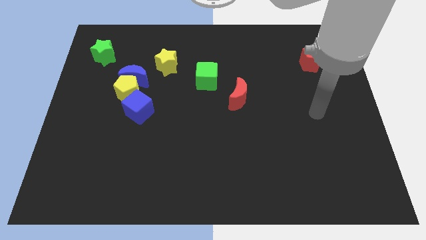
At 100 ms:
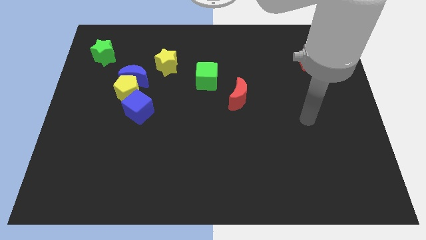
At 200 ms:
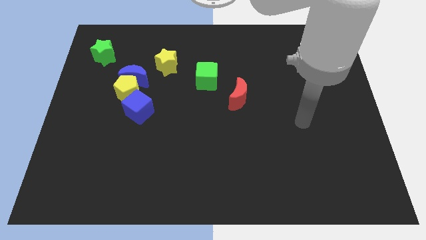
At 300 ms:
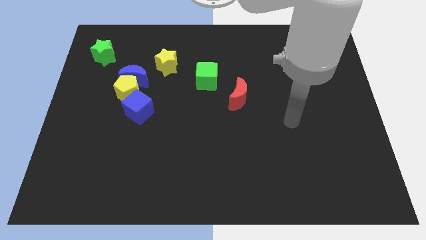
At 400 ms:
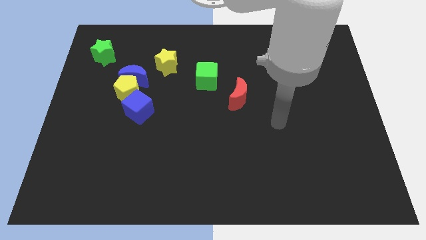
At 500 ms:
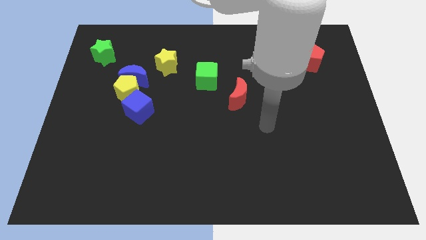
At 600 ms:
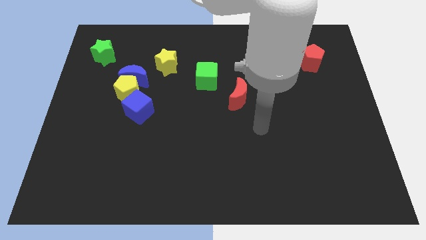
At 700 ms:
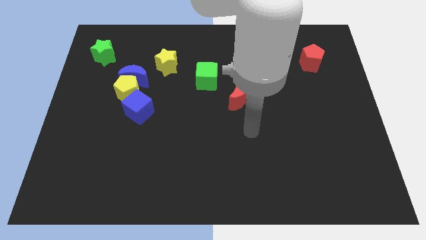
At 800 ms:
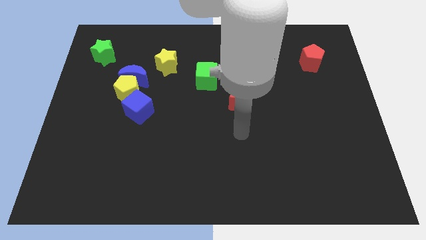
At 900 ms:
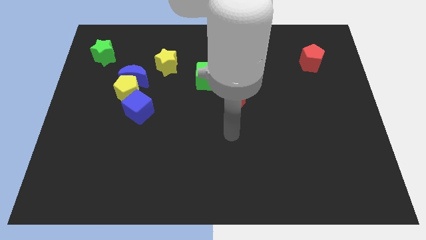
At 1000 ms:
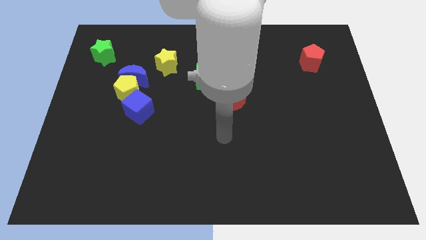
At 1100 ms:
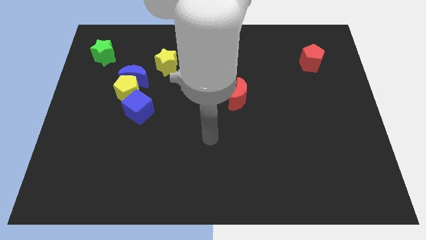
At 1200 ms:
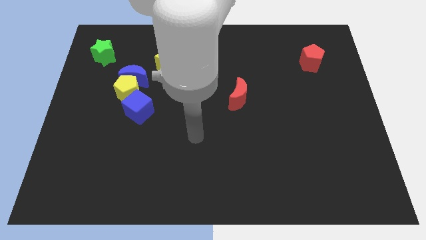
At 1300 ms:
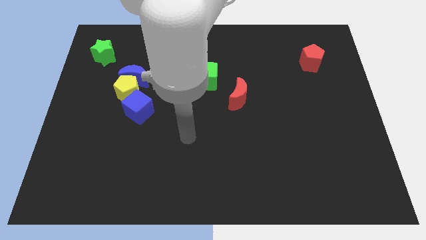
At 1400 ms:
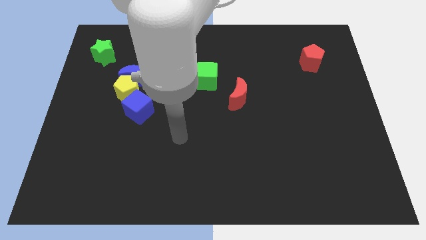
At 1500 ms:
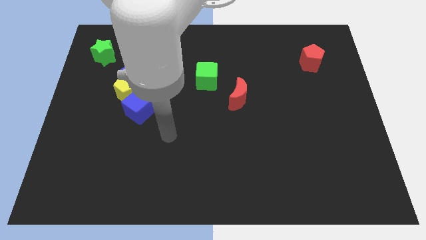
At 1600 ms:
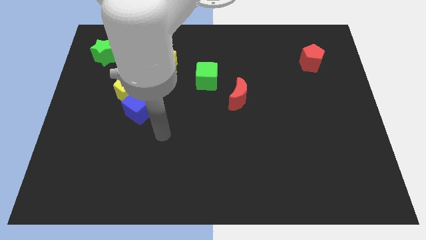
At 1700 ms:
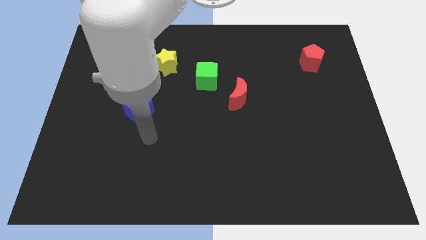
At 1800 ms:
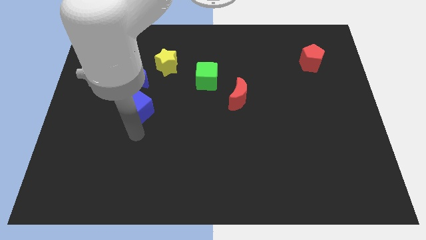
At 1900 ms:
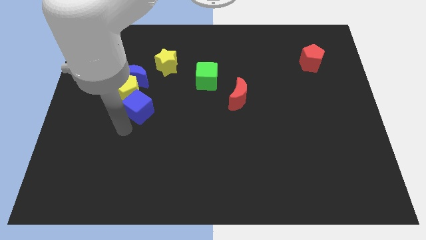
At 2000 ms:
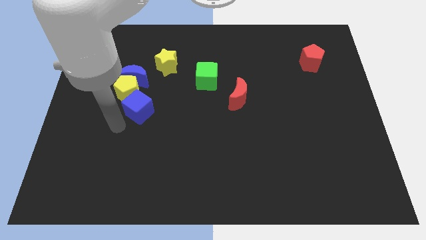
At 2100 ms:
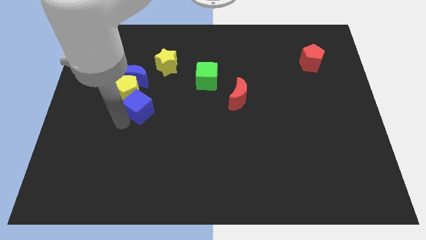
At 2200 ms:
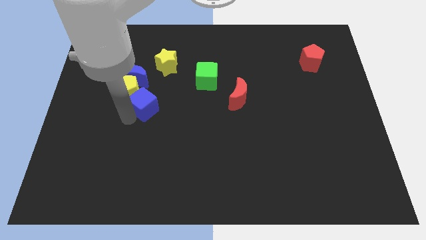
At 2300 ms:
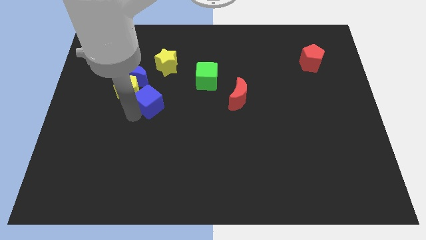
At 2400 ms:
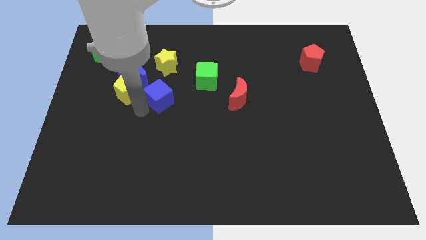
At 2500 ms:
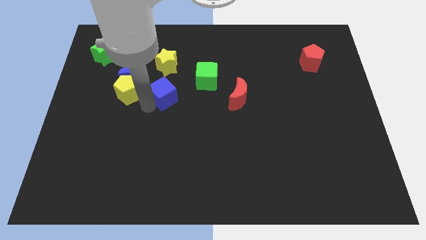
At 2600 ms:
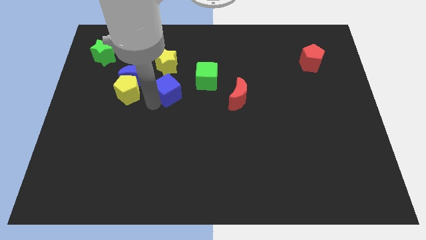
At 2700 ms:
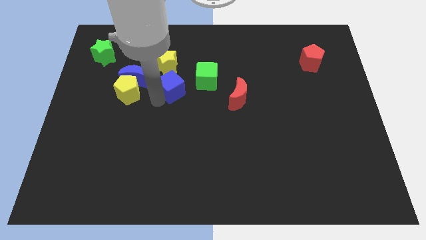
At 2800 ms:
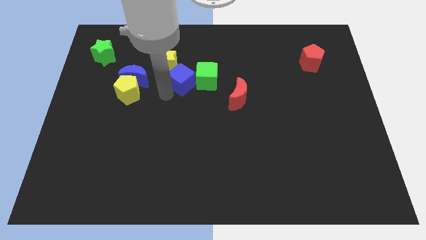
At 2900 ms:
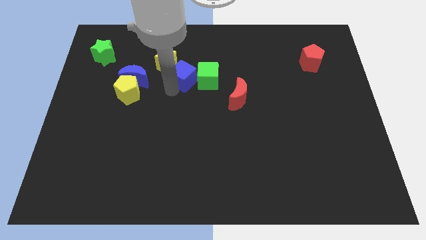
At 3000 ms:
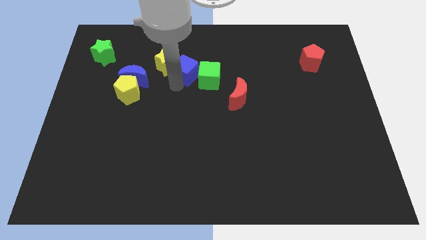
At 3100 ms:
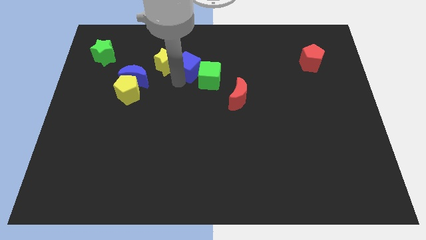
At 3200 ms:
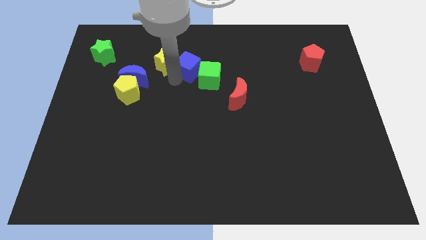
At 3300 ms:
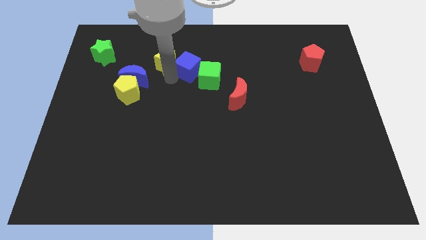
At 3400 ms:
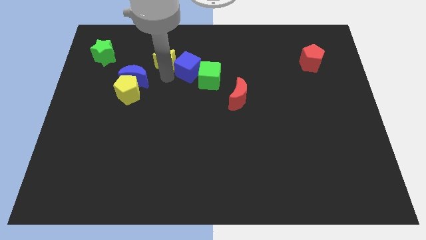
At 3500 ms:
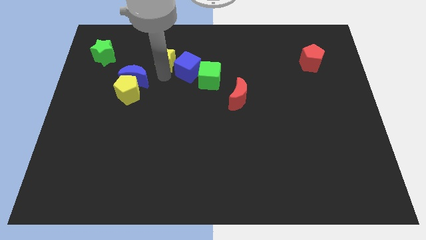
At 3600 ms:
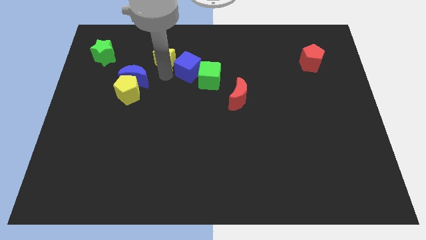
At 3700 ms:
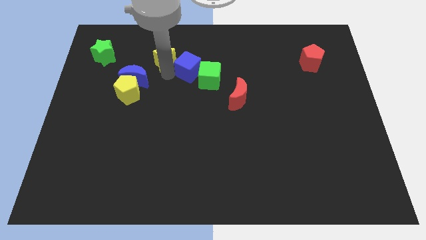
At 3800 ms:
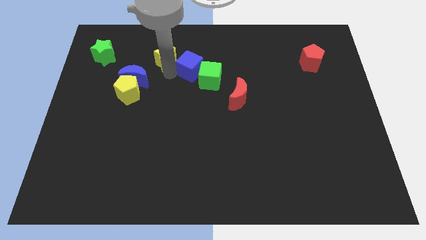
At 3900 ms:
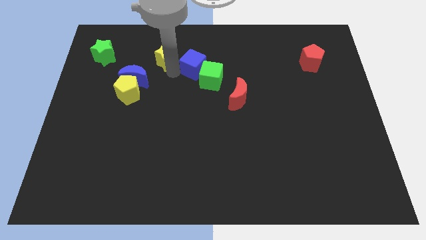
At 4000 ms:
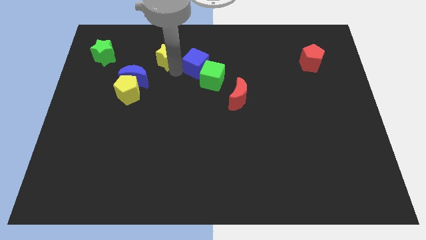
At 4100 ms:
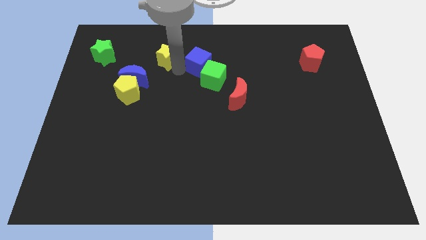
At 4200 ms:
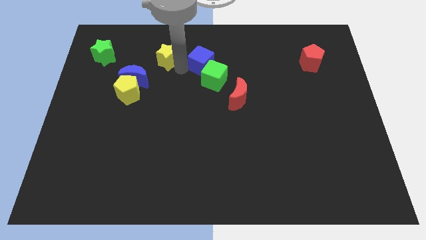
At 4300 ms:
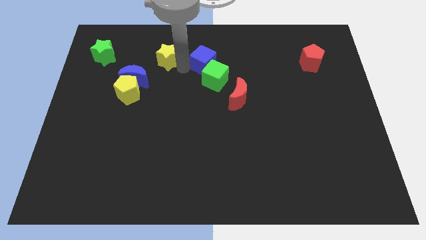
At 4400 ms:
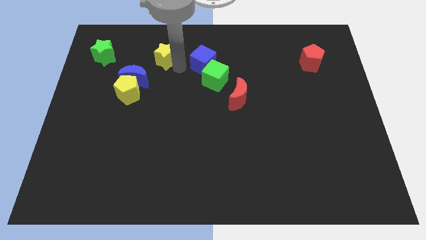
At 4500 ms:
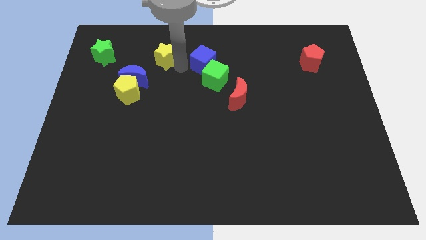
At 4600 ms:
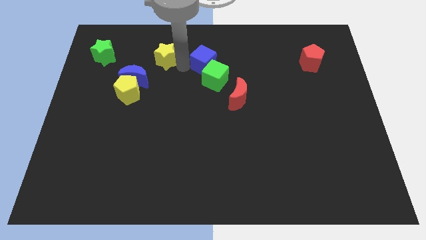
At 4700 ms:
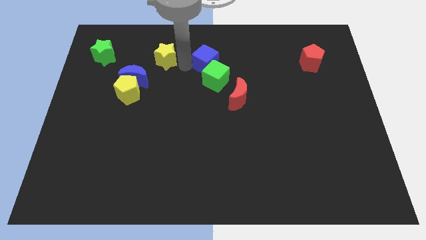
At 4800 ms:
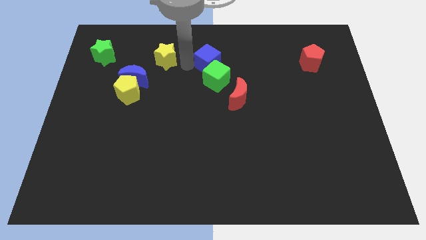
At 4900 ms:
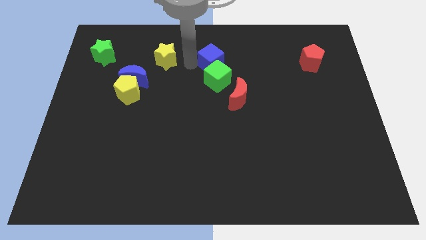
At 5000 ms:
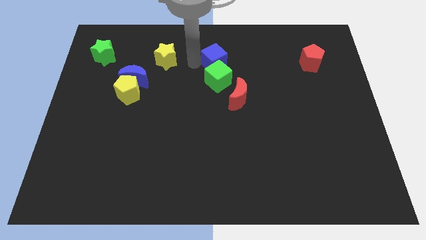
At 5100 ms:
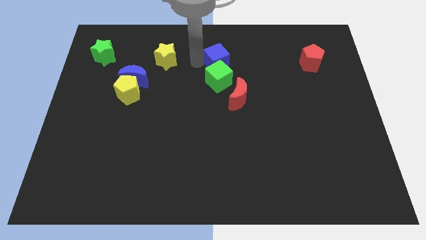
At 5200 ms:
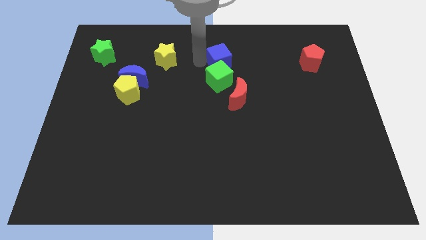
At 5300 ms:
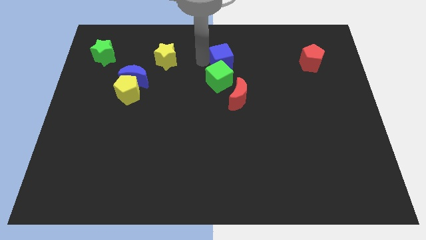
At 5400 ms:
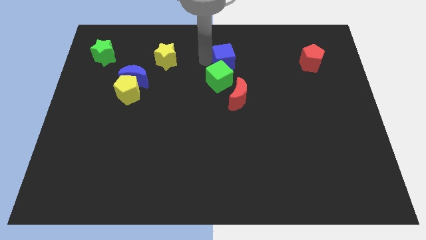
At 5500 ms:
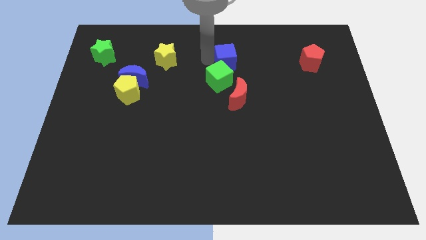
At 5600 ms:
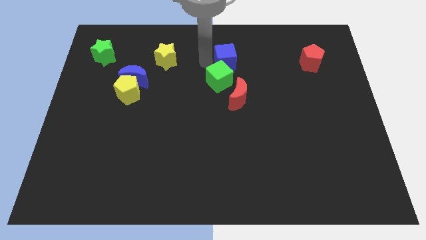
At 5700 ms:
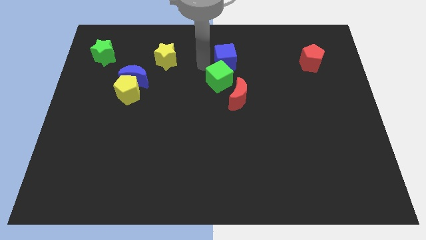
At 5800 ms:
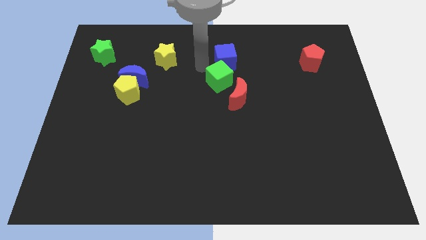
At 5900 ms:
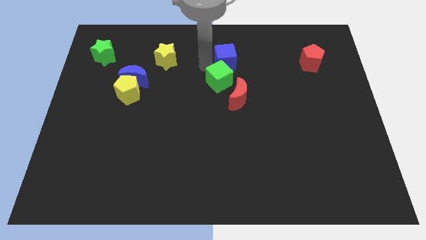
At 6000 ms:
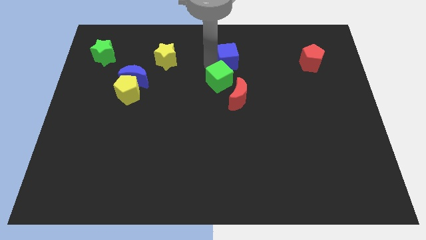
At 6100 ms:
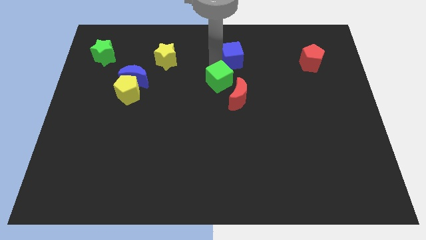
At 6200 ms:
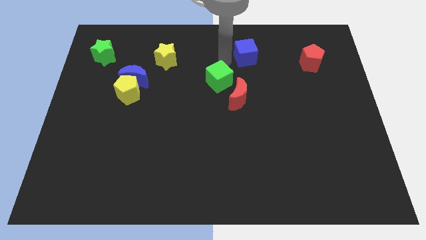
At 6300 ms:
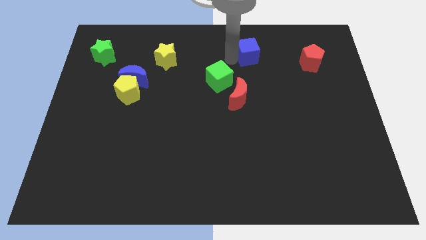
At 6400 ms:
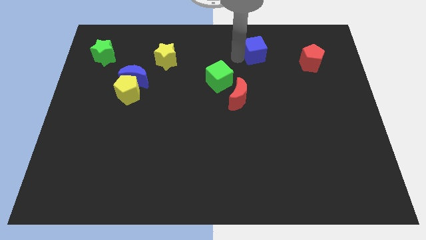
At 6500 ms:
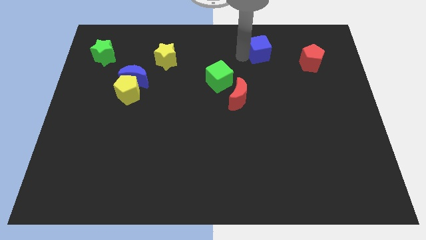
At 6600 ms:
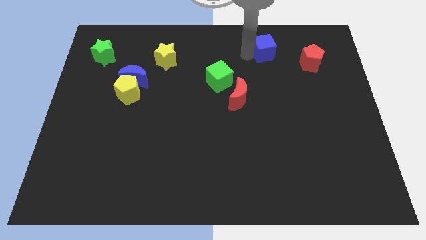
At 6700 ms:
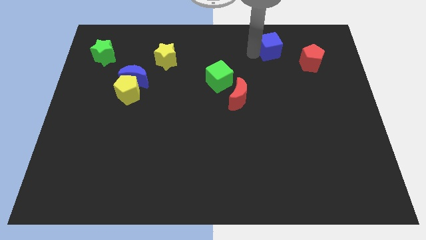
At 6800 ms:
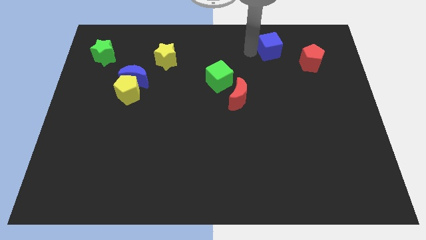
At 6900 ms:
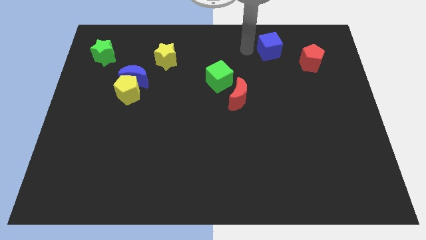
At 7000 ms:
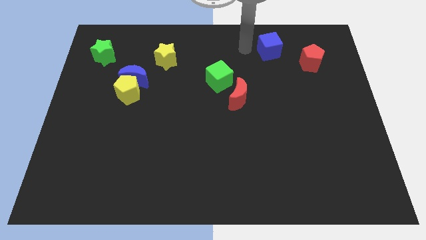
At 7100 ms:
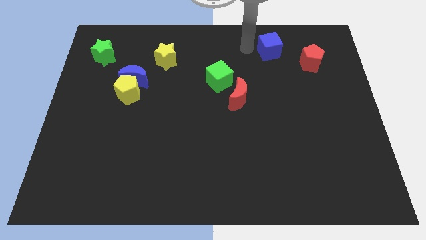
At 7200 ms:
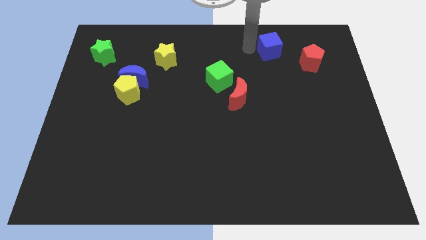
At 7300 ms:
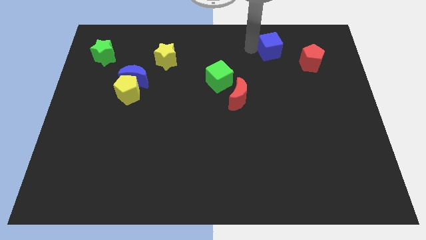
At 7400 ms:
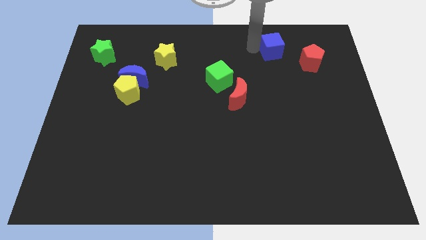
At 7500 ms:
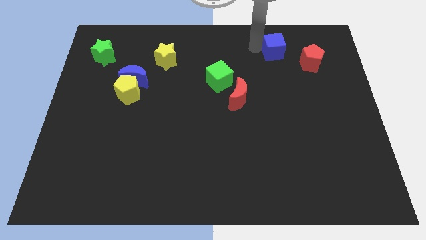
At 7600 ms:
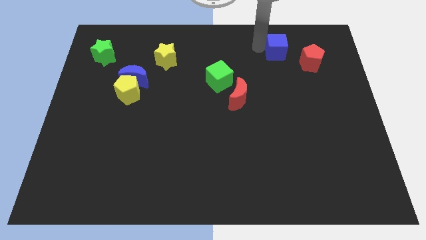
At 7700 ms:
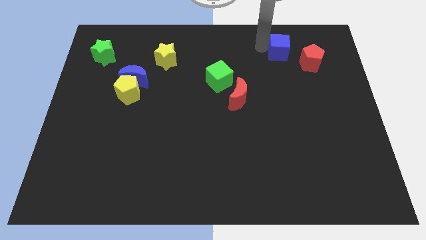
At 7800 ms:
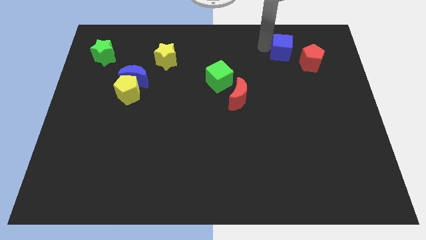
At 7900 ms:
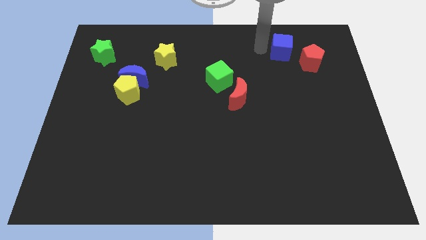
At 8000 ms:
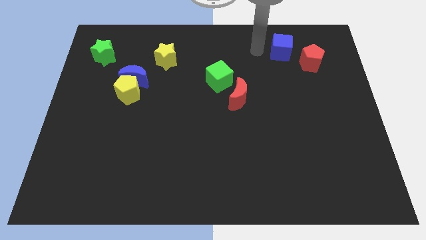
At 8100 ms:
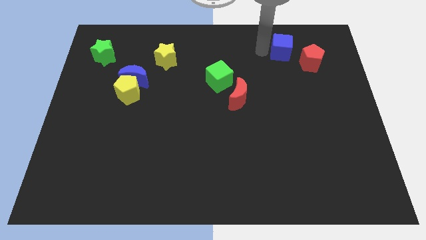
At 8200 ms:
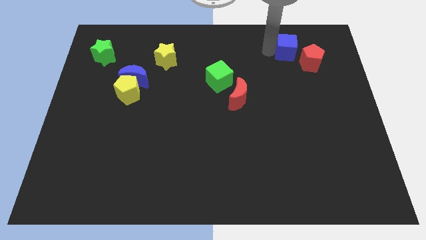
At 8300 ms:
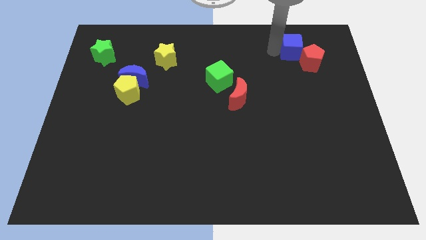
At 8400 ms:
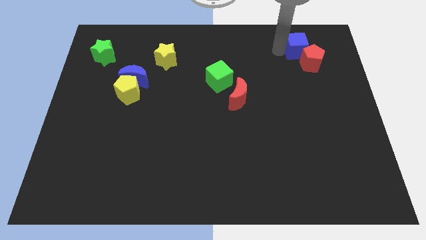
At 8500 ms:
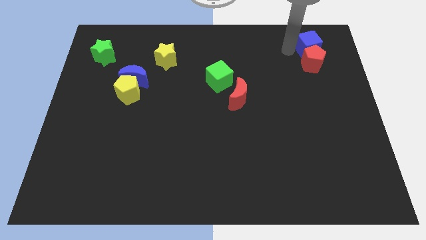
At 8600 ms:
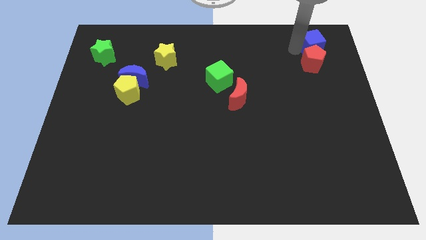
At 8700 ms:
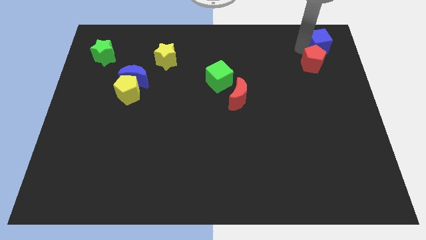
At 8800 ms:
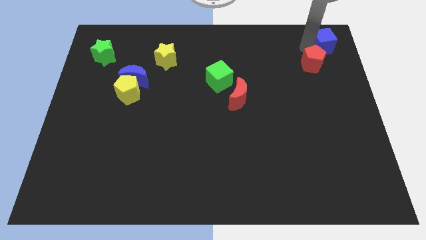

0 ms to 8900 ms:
slide the blue cube to the top right corner
